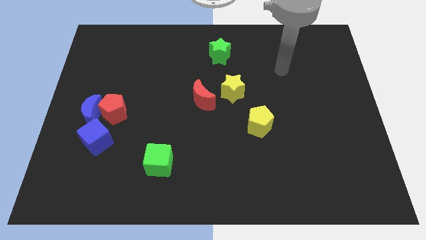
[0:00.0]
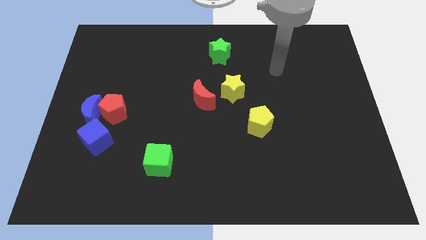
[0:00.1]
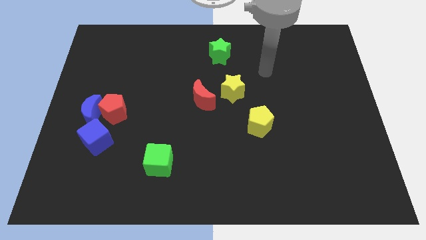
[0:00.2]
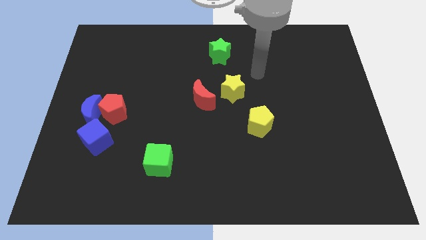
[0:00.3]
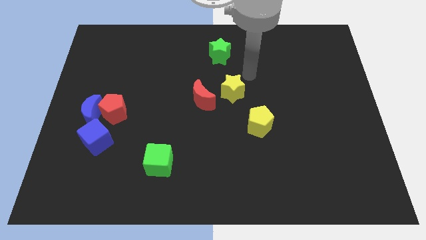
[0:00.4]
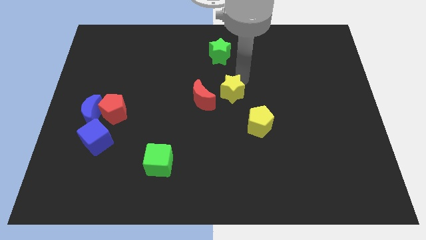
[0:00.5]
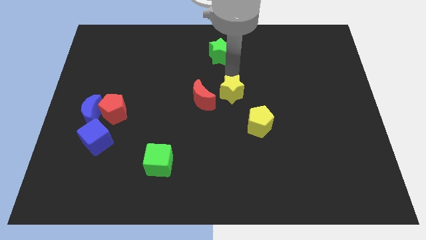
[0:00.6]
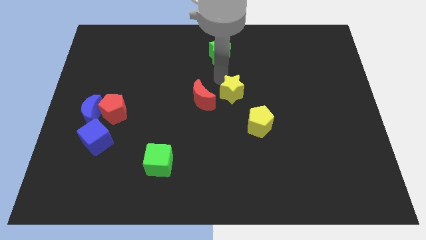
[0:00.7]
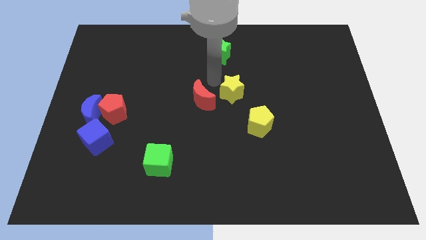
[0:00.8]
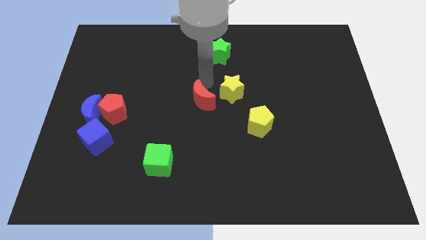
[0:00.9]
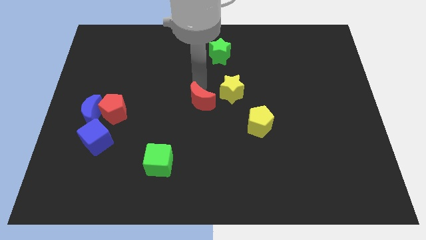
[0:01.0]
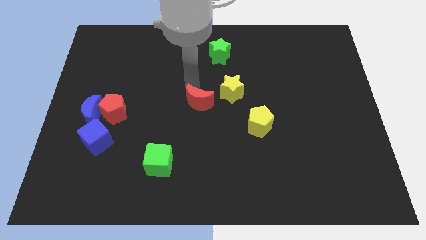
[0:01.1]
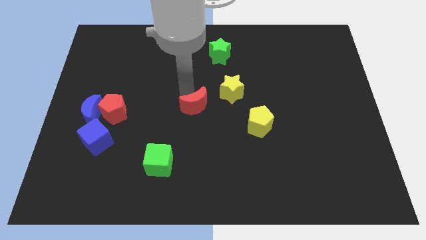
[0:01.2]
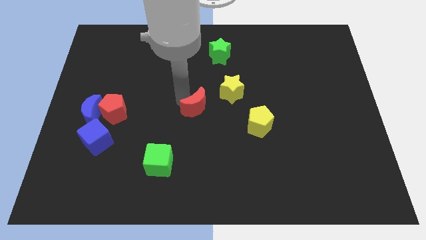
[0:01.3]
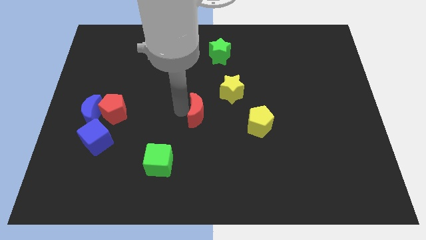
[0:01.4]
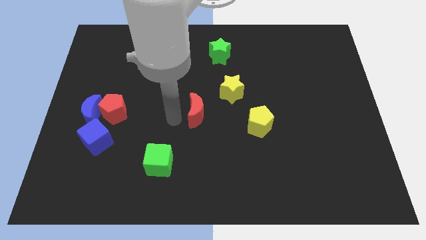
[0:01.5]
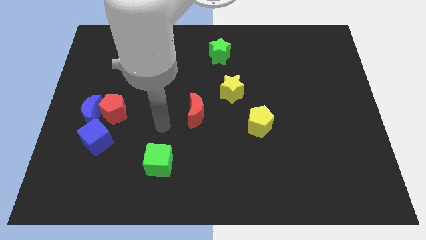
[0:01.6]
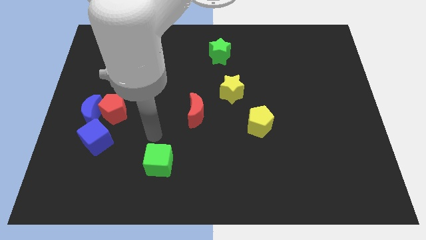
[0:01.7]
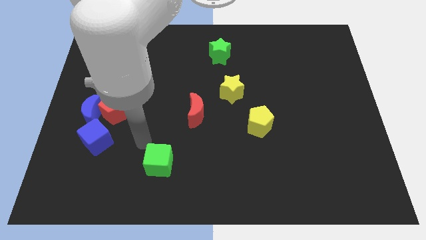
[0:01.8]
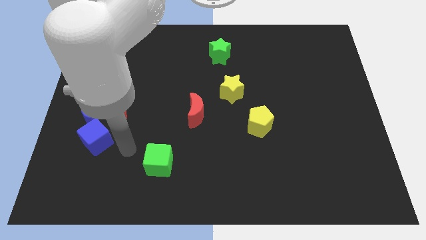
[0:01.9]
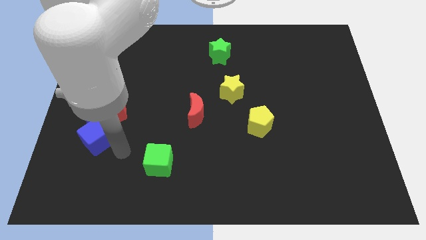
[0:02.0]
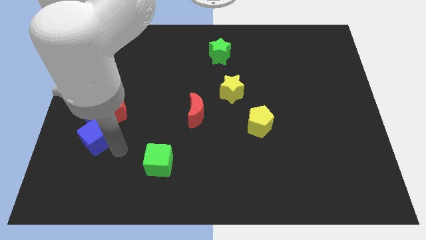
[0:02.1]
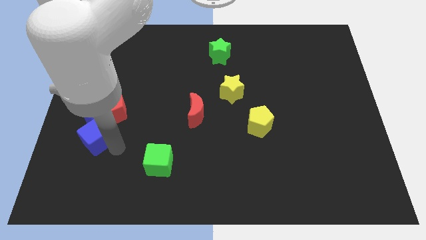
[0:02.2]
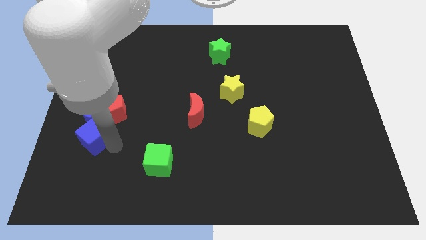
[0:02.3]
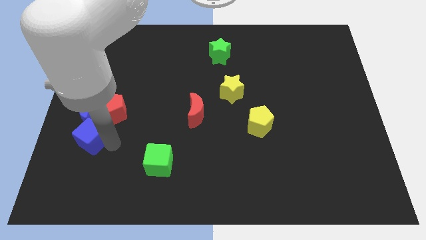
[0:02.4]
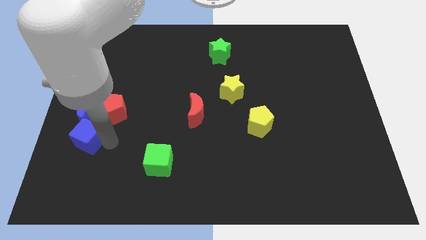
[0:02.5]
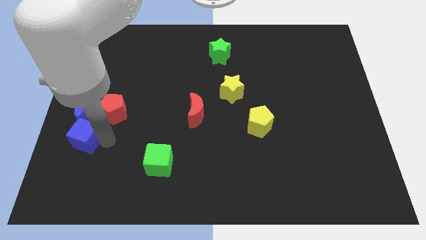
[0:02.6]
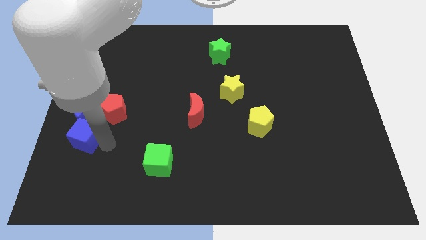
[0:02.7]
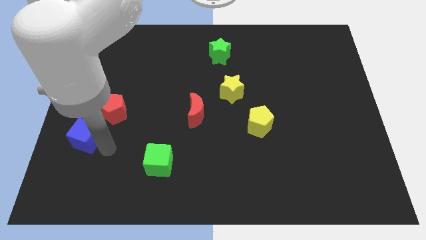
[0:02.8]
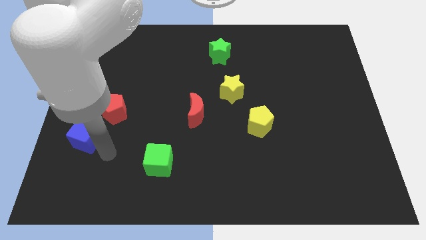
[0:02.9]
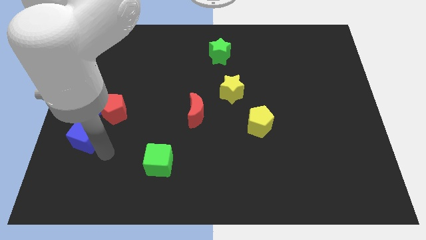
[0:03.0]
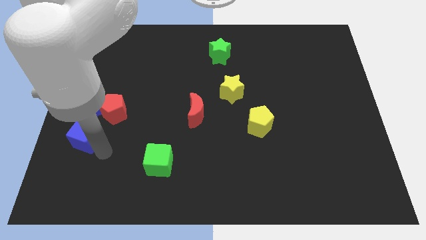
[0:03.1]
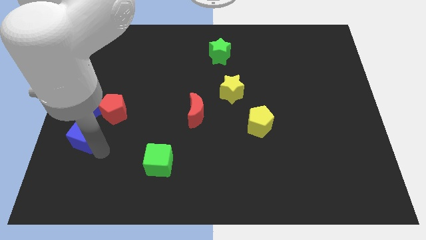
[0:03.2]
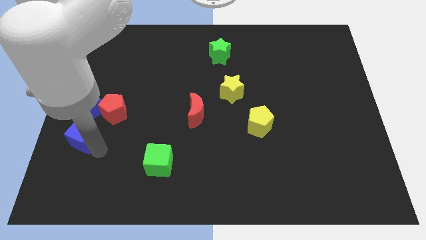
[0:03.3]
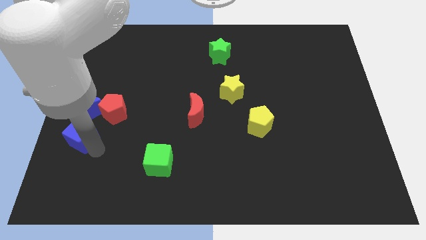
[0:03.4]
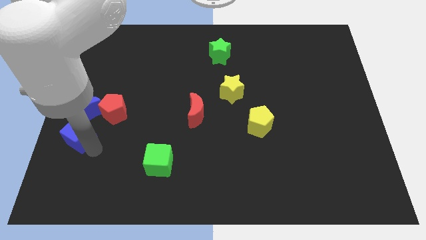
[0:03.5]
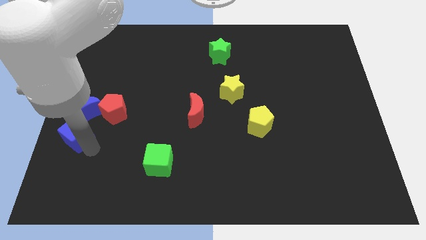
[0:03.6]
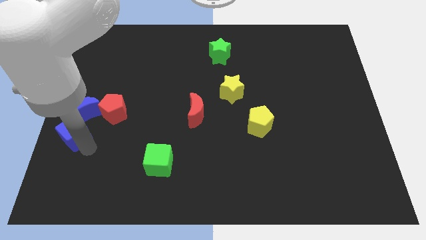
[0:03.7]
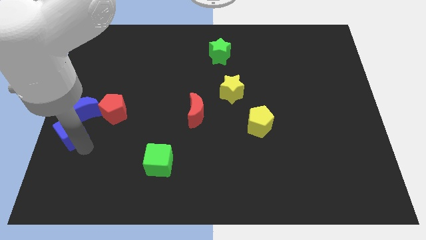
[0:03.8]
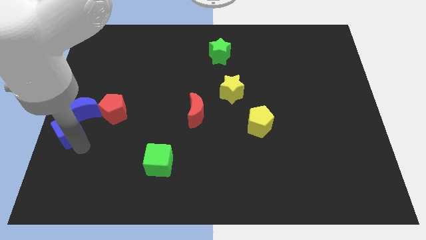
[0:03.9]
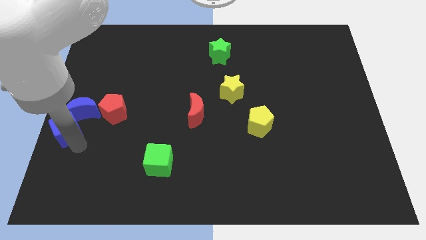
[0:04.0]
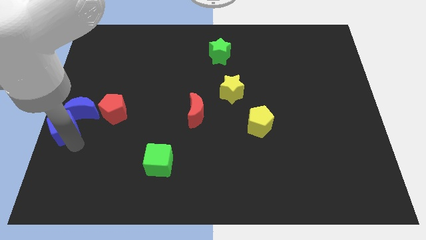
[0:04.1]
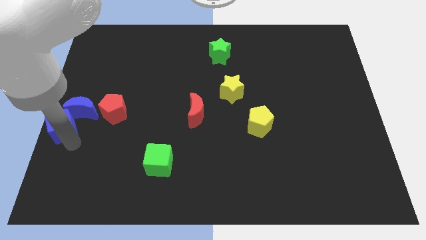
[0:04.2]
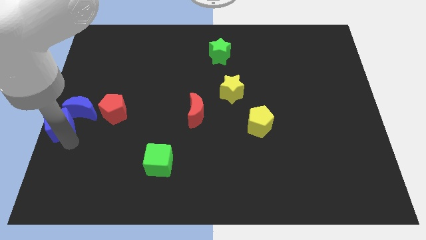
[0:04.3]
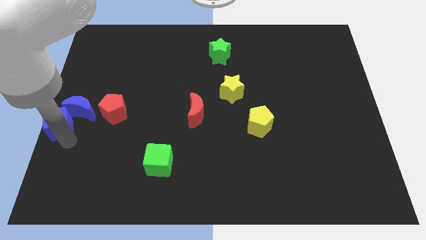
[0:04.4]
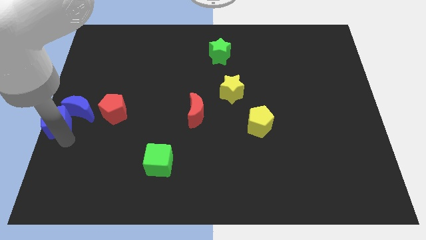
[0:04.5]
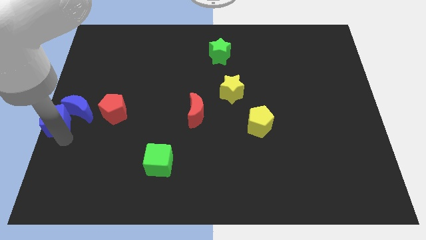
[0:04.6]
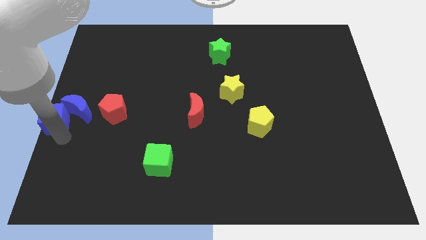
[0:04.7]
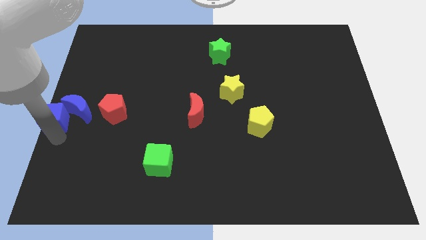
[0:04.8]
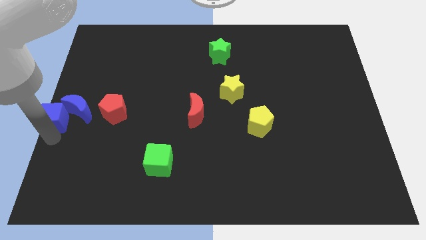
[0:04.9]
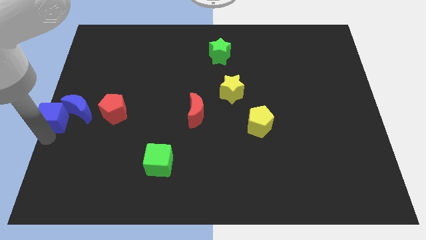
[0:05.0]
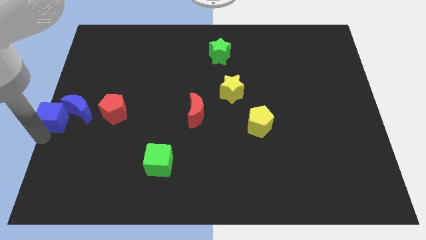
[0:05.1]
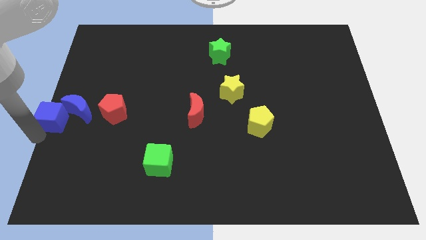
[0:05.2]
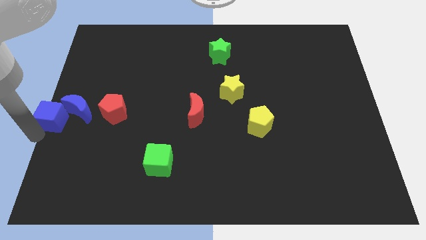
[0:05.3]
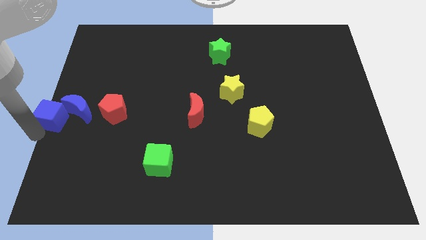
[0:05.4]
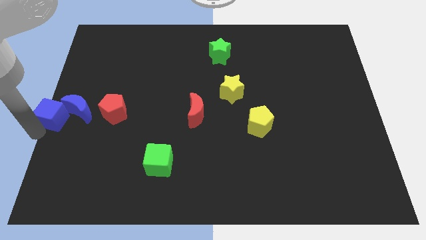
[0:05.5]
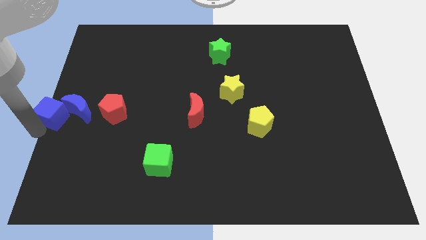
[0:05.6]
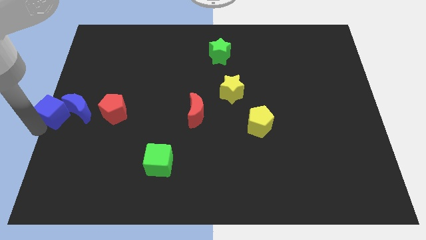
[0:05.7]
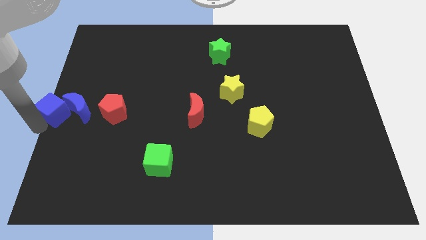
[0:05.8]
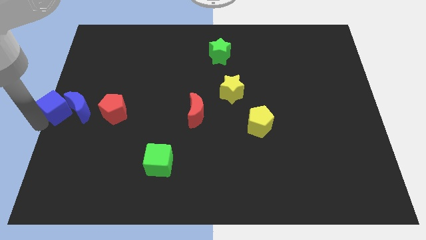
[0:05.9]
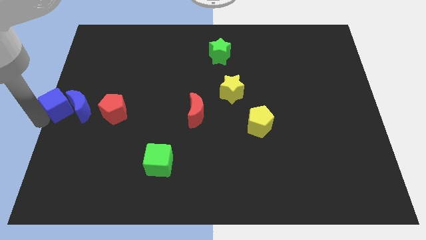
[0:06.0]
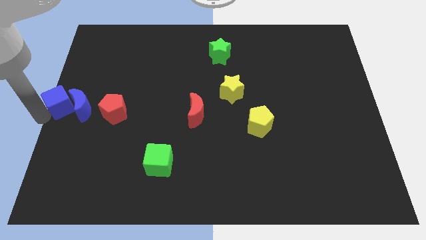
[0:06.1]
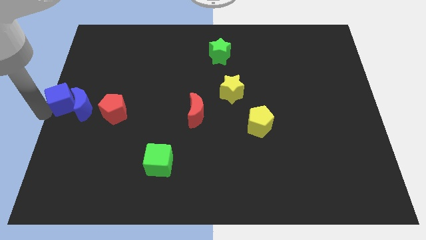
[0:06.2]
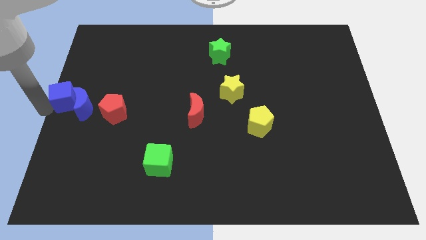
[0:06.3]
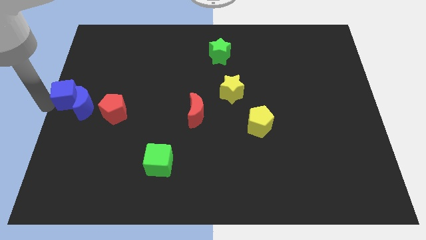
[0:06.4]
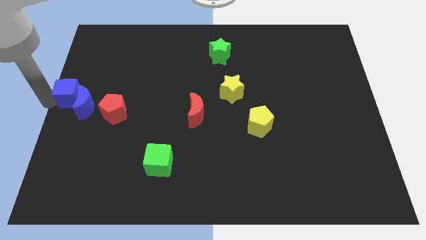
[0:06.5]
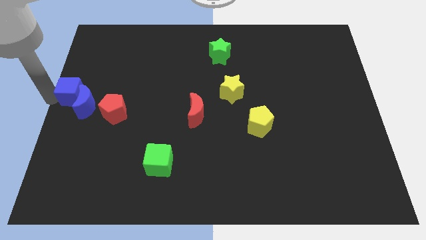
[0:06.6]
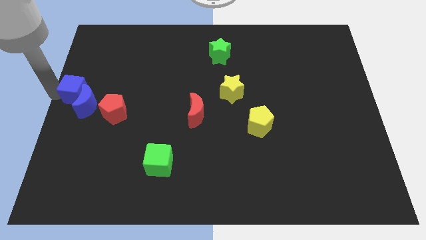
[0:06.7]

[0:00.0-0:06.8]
push the blue cube diagonally up and to the left of the red pentagon

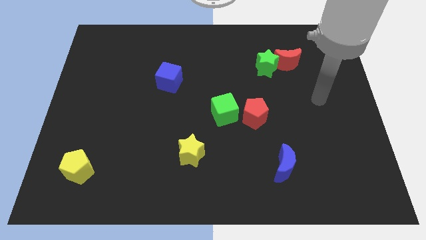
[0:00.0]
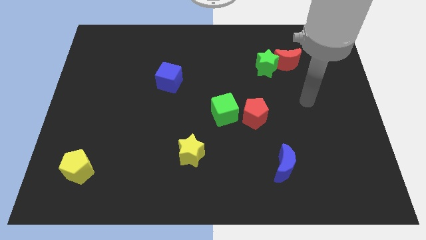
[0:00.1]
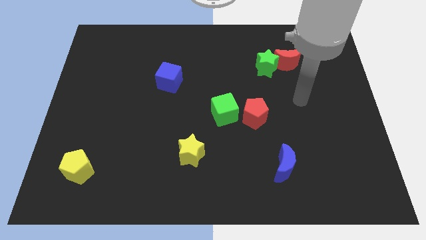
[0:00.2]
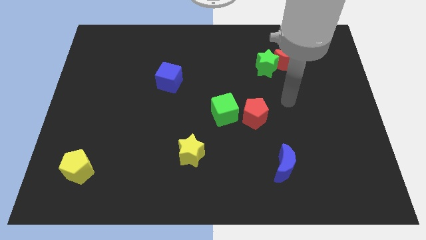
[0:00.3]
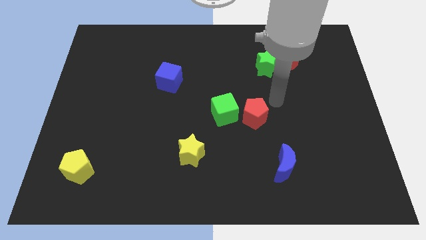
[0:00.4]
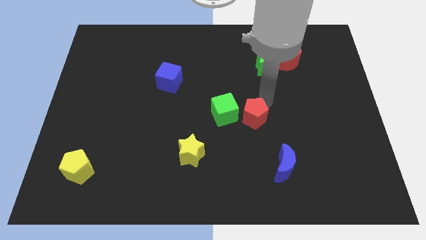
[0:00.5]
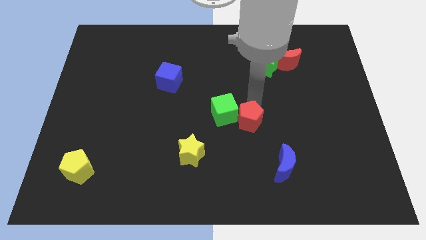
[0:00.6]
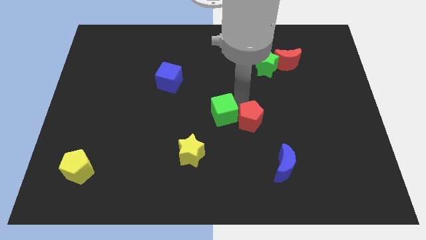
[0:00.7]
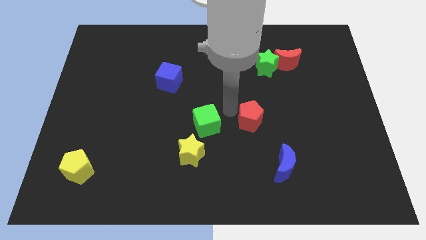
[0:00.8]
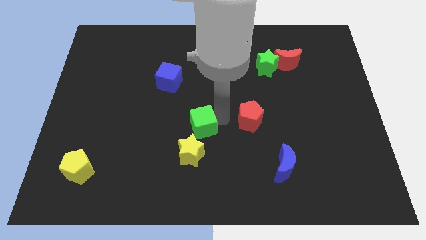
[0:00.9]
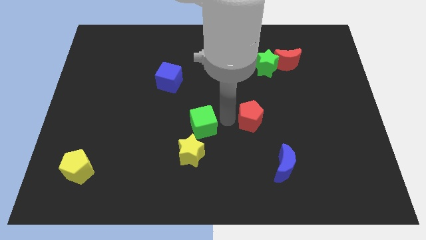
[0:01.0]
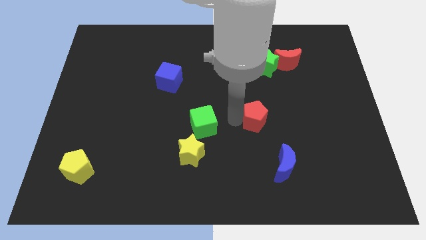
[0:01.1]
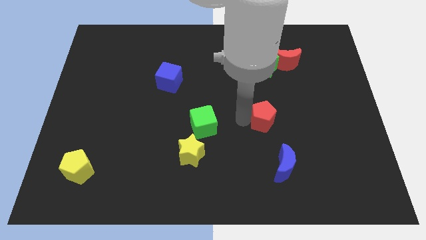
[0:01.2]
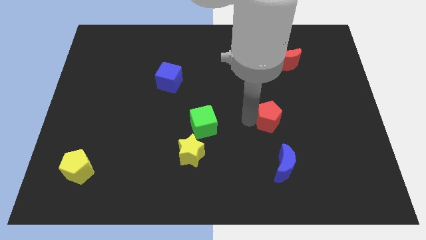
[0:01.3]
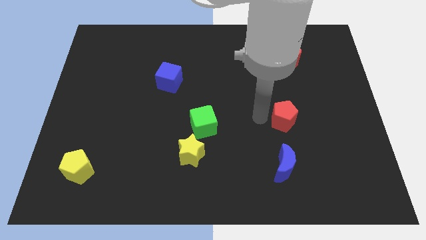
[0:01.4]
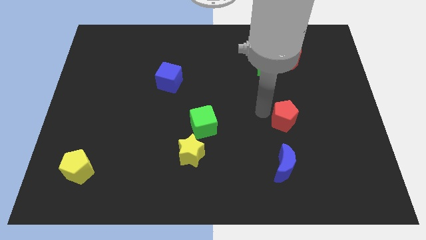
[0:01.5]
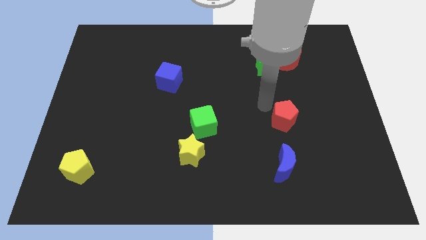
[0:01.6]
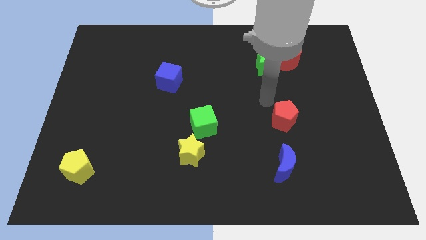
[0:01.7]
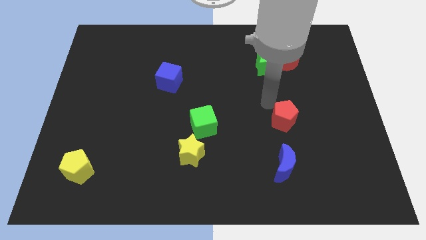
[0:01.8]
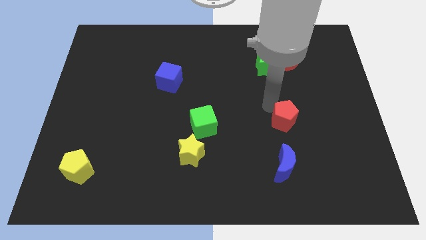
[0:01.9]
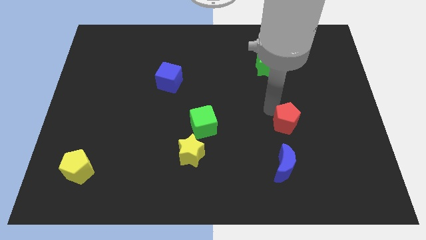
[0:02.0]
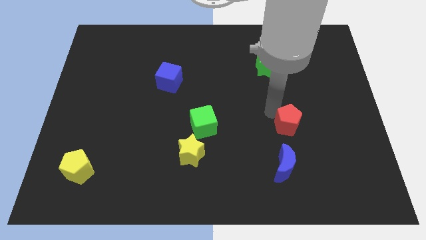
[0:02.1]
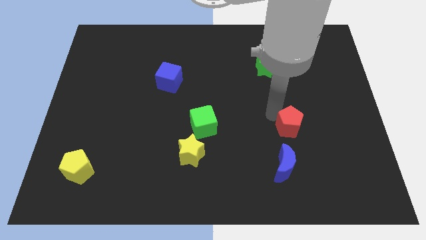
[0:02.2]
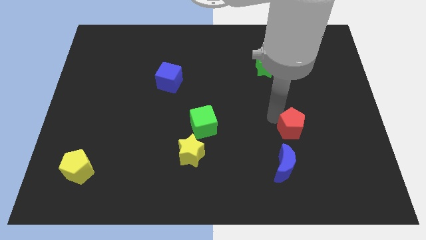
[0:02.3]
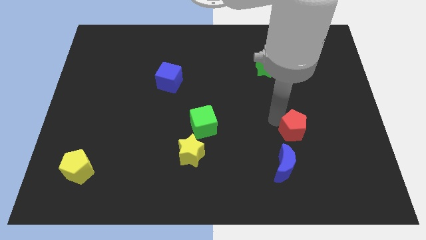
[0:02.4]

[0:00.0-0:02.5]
slide the red pentagon to the top right of the blue moon
